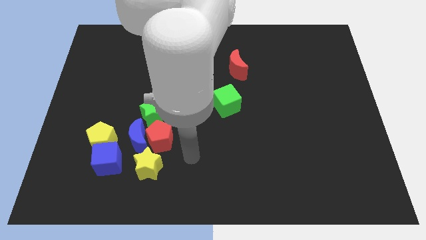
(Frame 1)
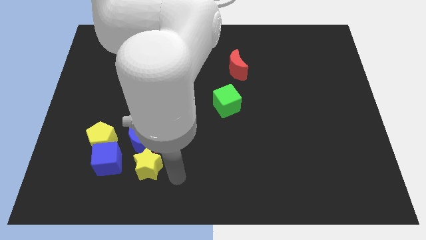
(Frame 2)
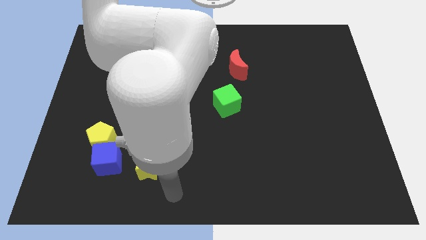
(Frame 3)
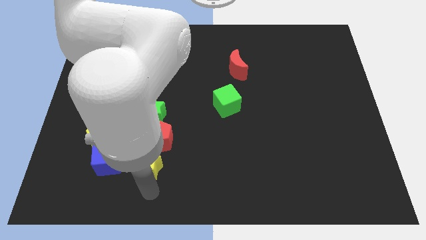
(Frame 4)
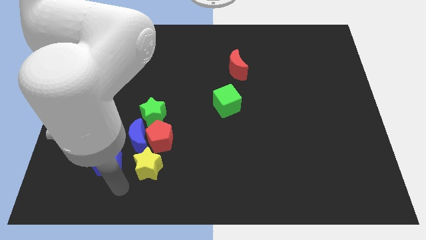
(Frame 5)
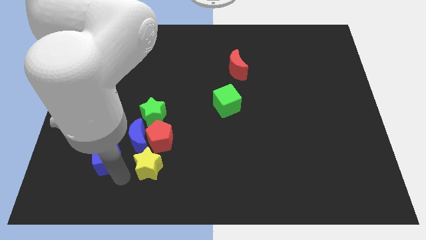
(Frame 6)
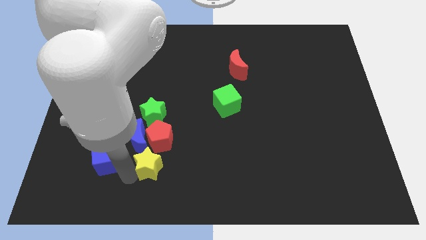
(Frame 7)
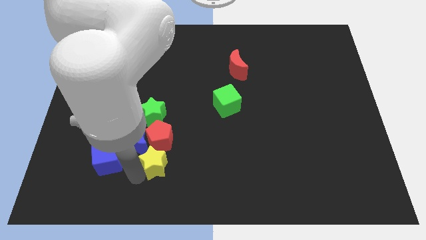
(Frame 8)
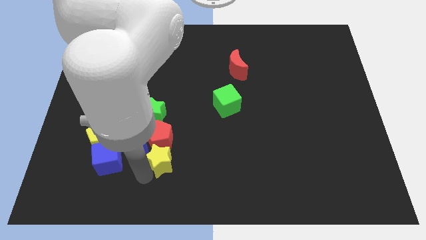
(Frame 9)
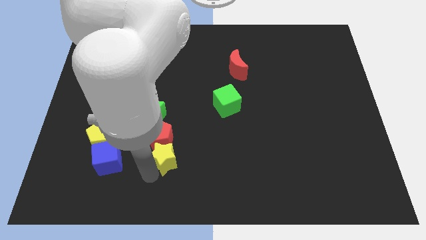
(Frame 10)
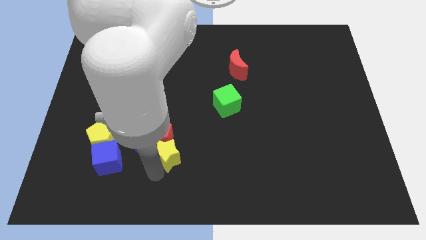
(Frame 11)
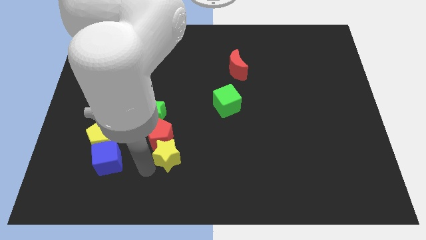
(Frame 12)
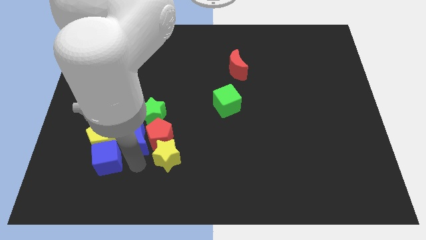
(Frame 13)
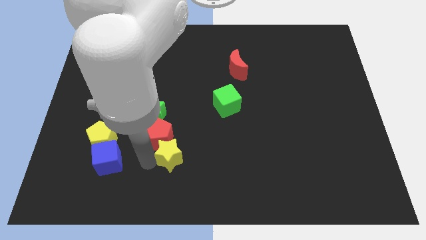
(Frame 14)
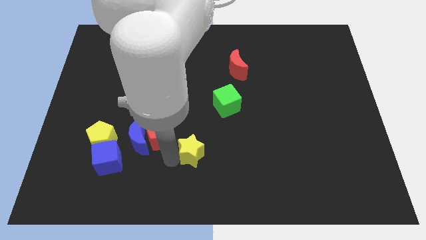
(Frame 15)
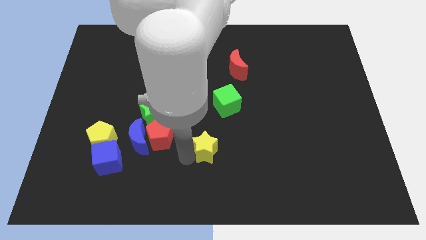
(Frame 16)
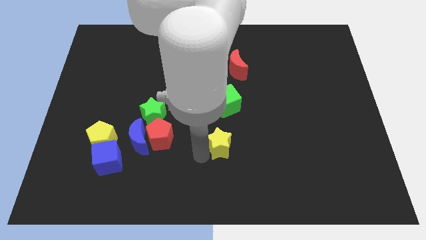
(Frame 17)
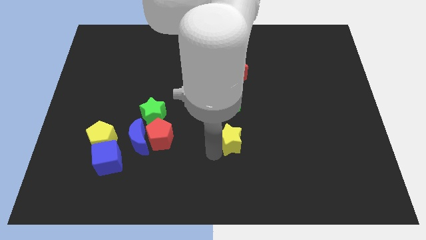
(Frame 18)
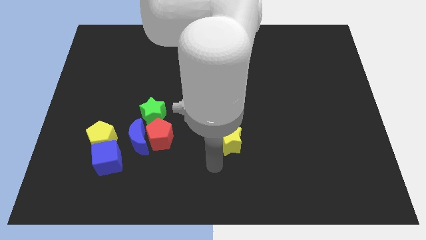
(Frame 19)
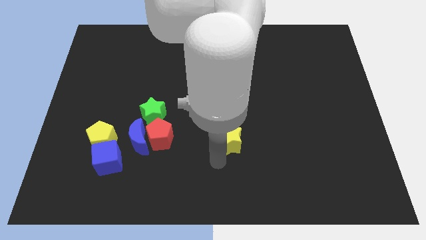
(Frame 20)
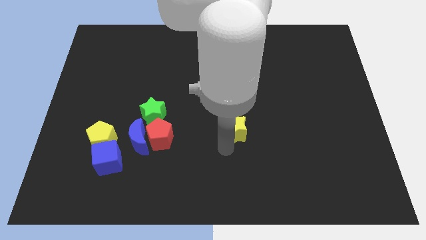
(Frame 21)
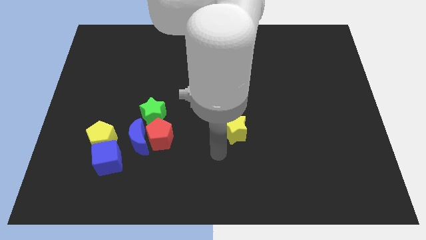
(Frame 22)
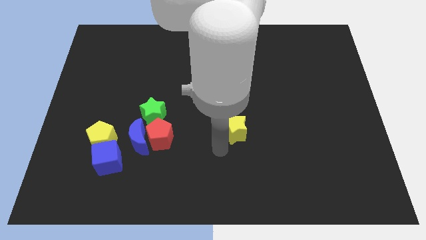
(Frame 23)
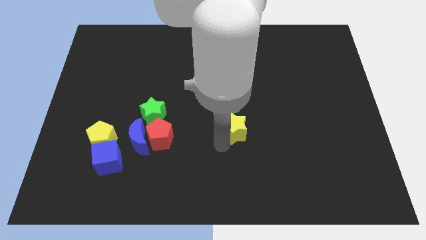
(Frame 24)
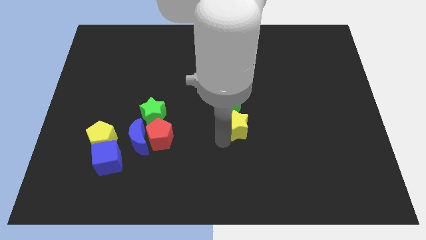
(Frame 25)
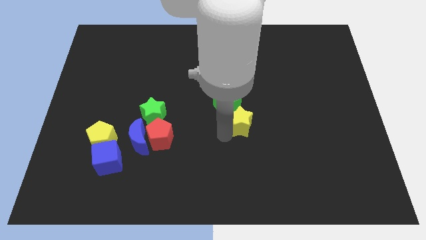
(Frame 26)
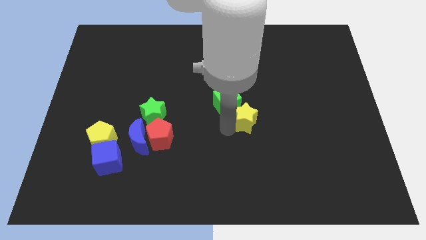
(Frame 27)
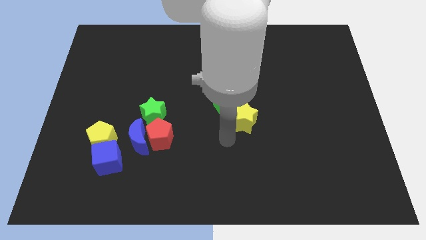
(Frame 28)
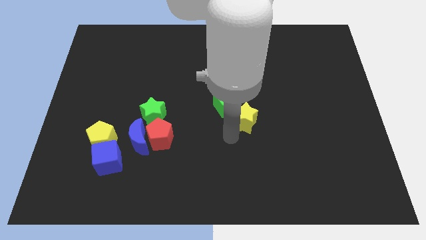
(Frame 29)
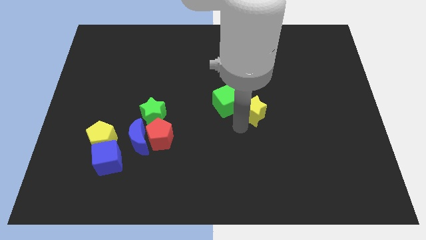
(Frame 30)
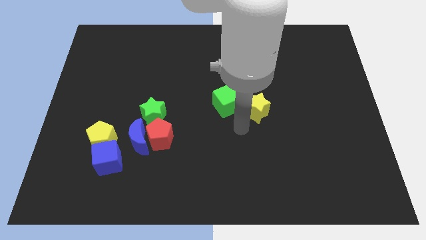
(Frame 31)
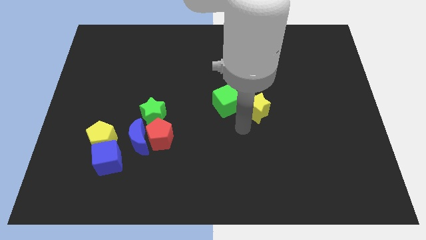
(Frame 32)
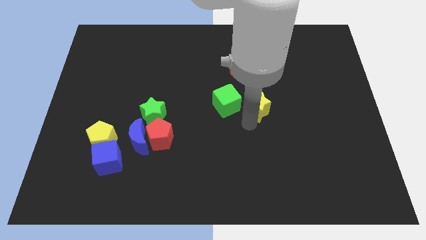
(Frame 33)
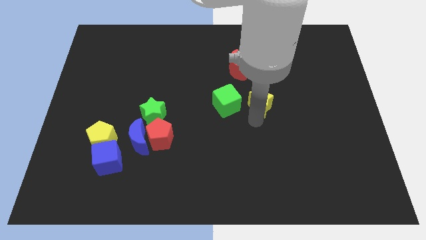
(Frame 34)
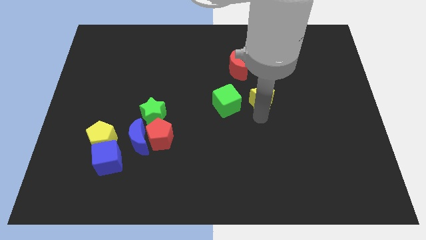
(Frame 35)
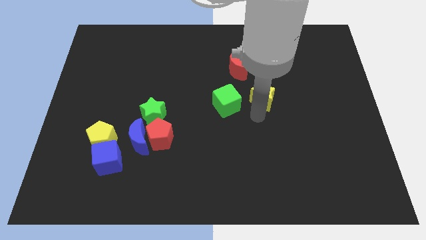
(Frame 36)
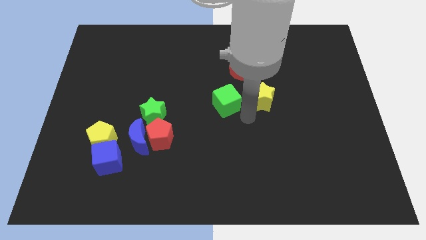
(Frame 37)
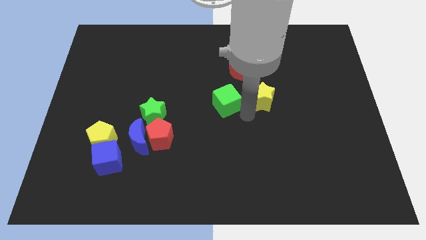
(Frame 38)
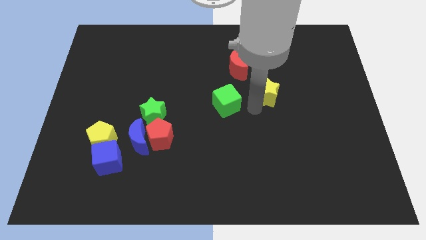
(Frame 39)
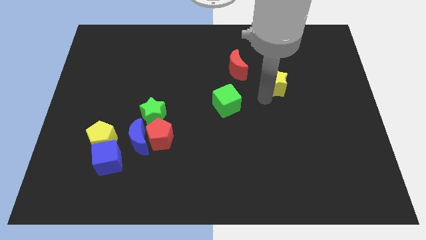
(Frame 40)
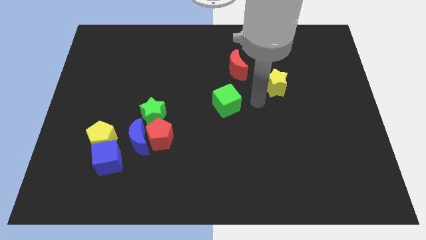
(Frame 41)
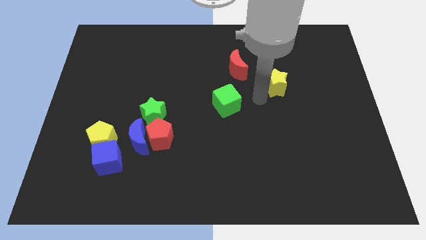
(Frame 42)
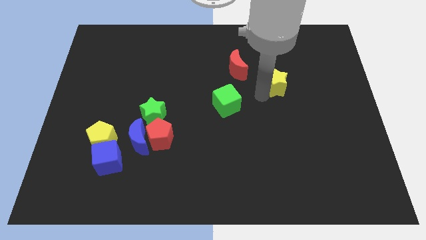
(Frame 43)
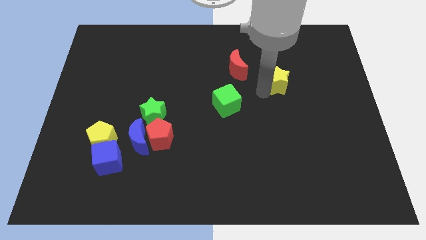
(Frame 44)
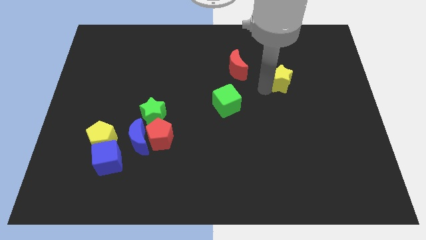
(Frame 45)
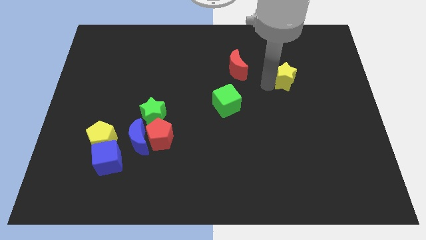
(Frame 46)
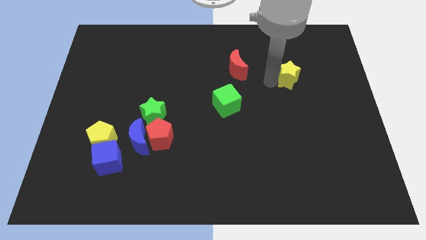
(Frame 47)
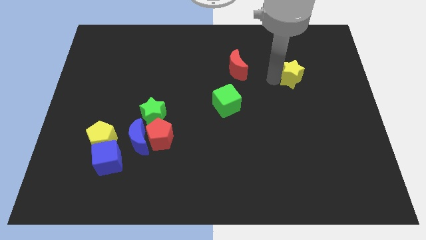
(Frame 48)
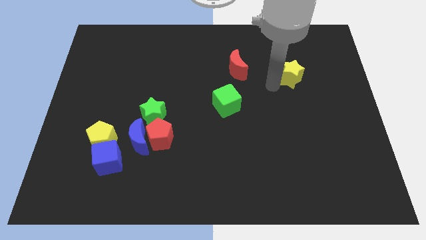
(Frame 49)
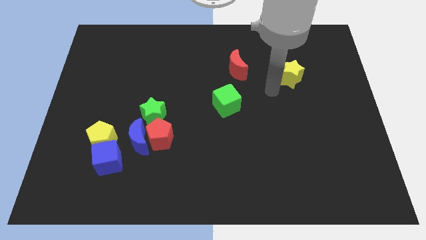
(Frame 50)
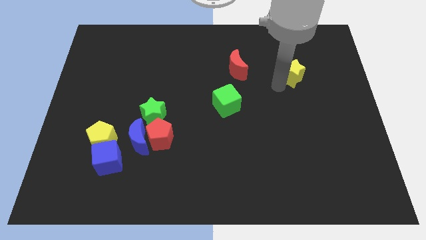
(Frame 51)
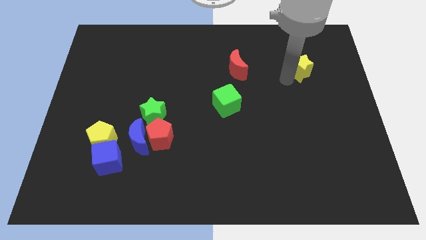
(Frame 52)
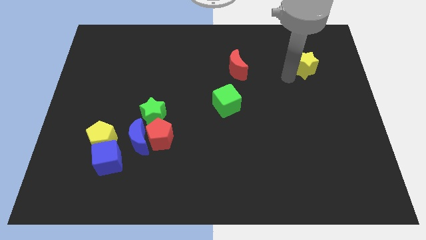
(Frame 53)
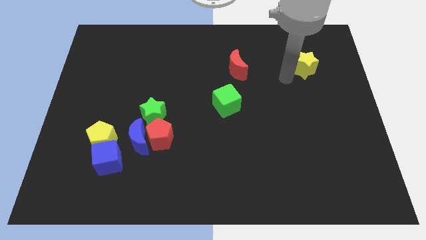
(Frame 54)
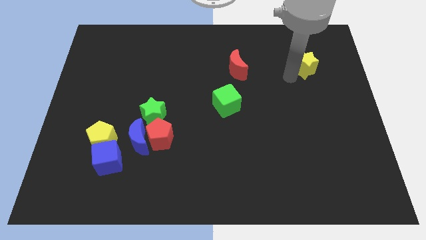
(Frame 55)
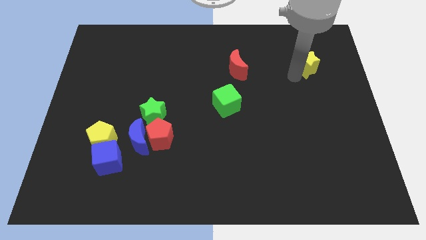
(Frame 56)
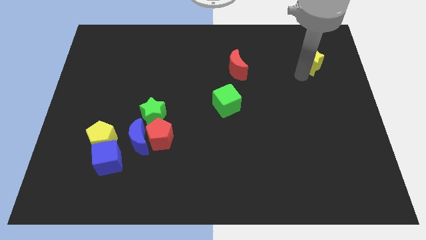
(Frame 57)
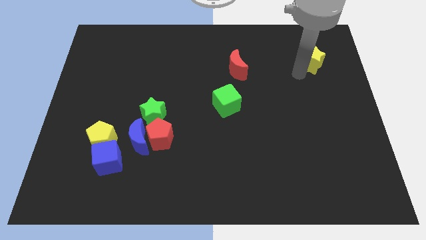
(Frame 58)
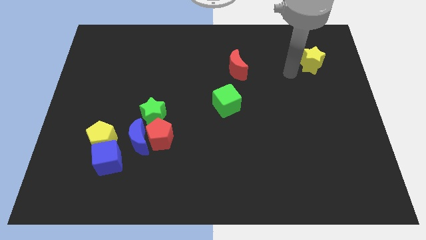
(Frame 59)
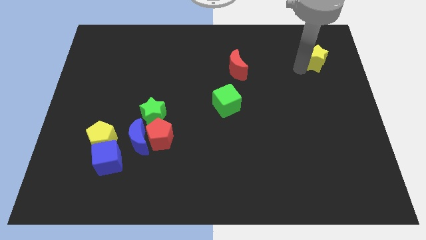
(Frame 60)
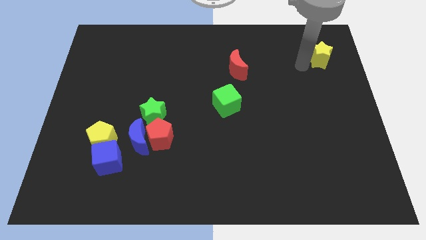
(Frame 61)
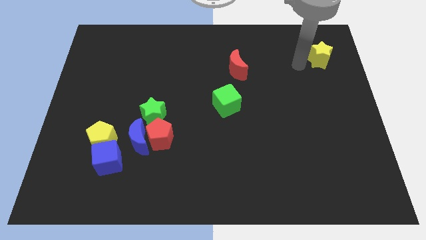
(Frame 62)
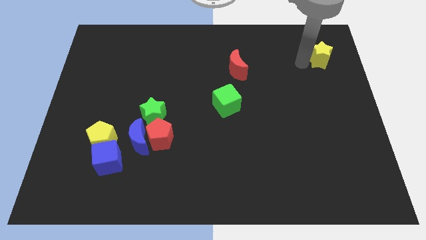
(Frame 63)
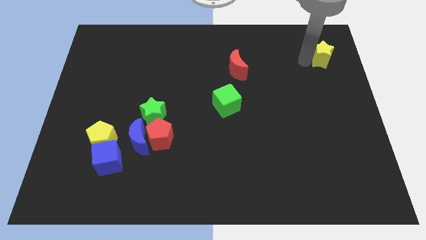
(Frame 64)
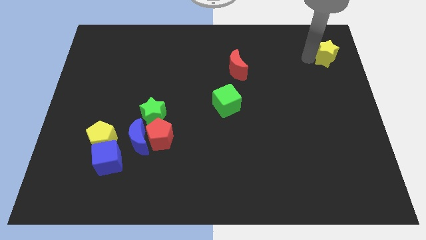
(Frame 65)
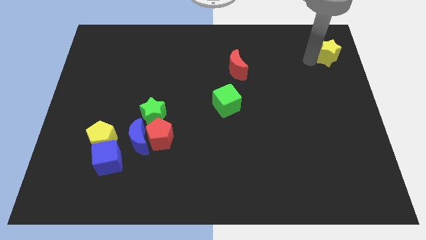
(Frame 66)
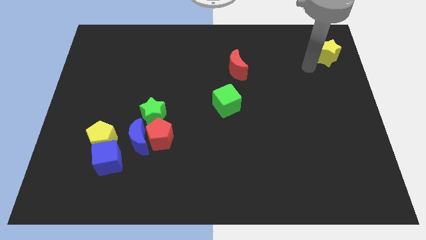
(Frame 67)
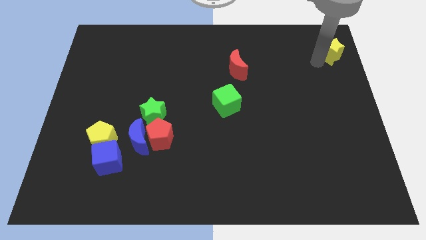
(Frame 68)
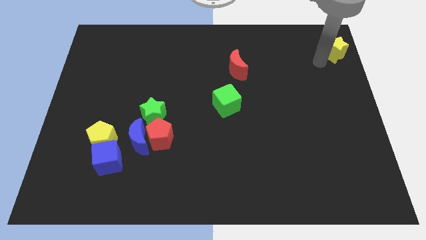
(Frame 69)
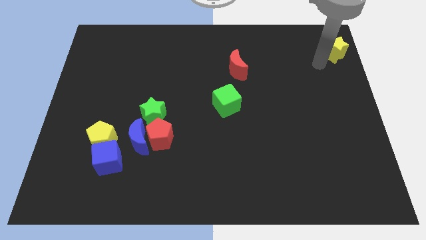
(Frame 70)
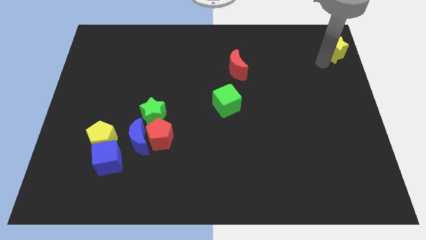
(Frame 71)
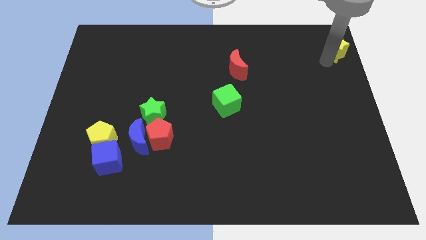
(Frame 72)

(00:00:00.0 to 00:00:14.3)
slide the yellow star to the top right corner
